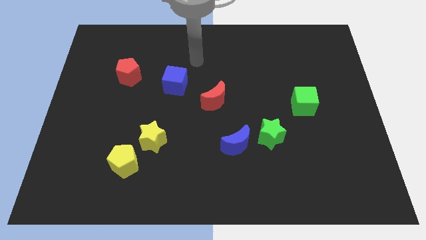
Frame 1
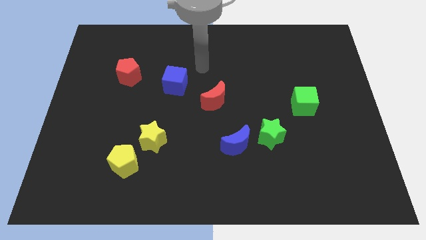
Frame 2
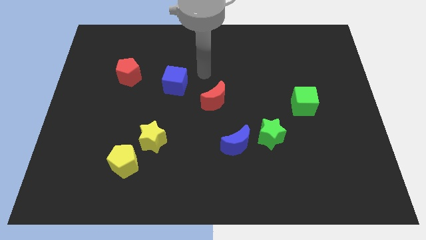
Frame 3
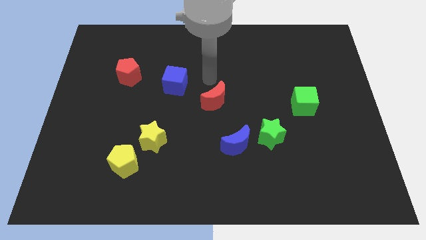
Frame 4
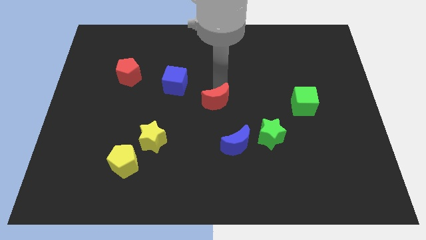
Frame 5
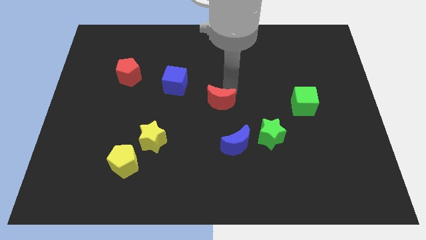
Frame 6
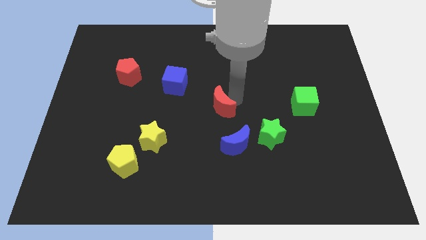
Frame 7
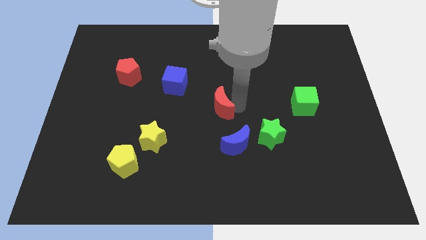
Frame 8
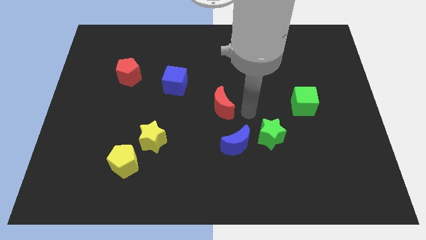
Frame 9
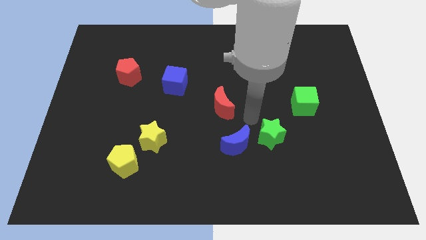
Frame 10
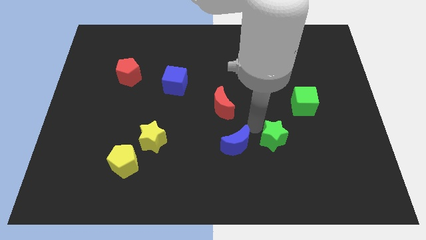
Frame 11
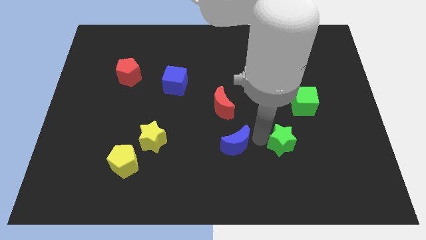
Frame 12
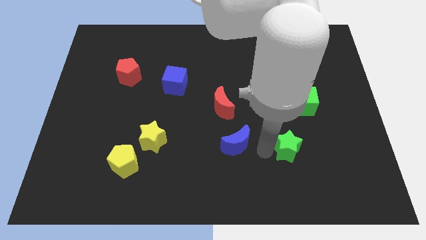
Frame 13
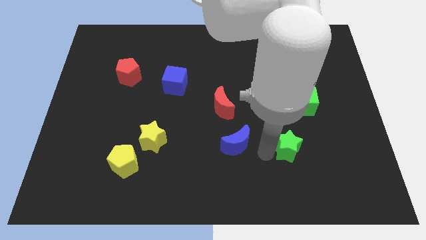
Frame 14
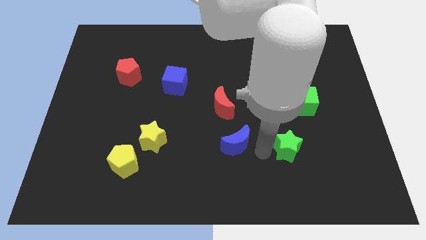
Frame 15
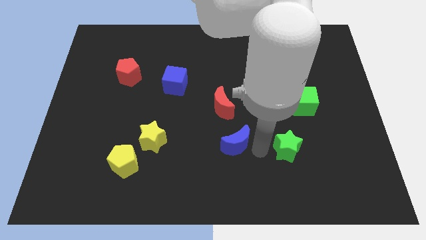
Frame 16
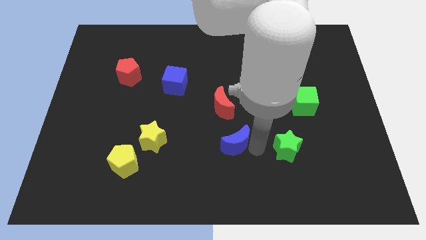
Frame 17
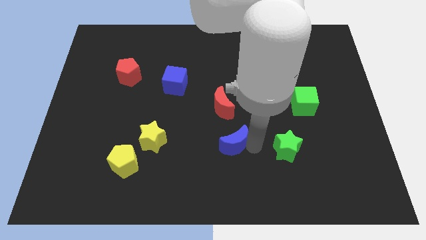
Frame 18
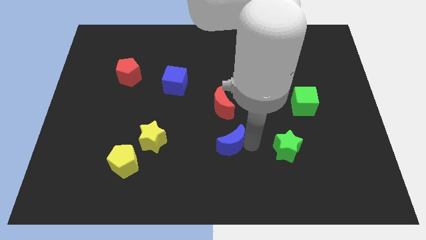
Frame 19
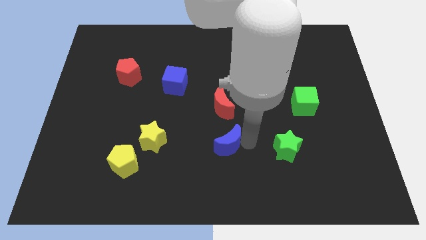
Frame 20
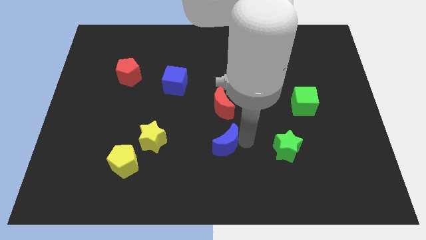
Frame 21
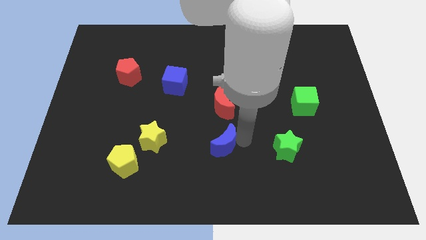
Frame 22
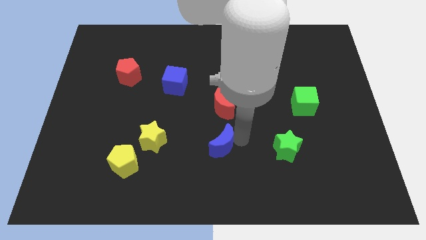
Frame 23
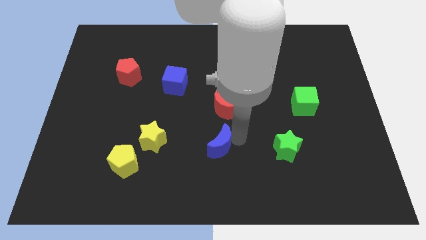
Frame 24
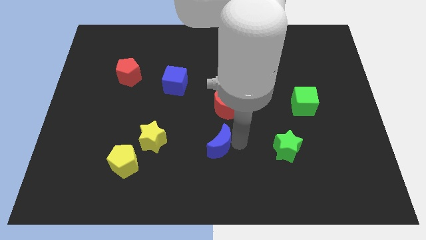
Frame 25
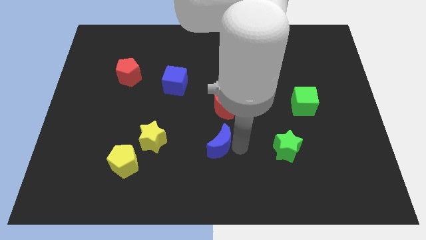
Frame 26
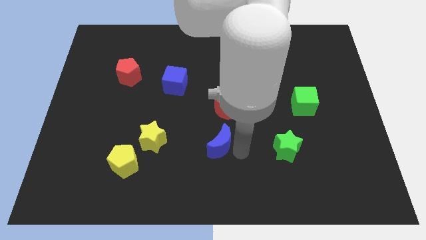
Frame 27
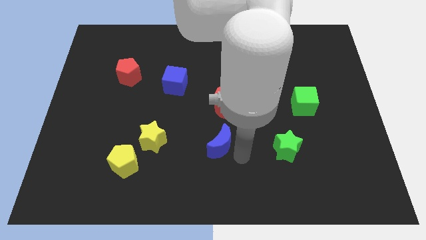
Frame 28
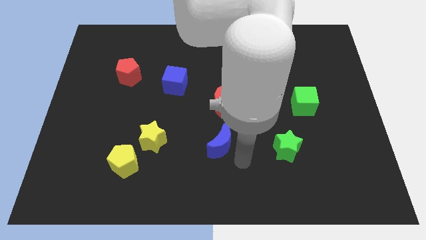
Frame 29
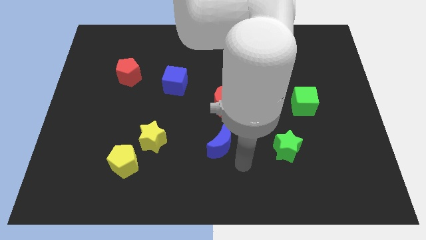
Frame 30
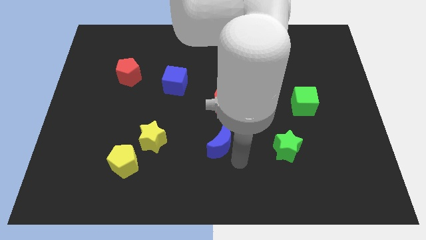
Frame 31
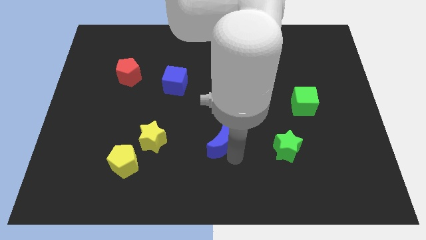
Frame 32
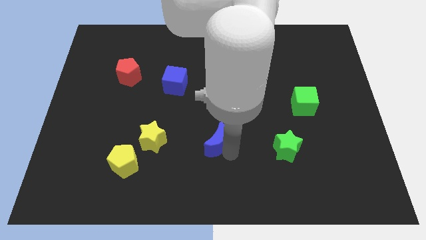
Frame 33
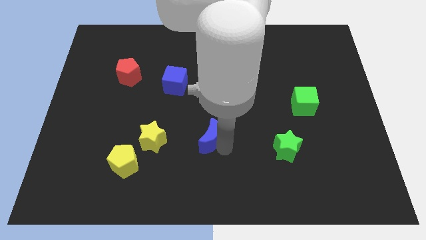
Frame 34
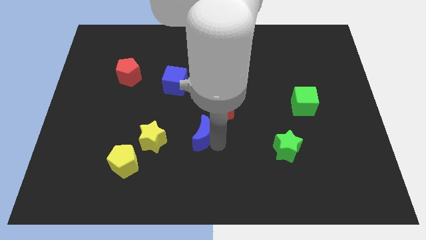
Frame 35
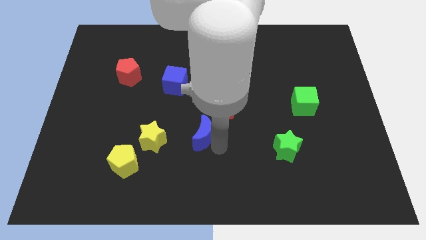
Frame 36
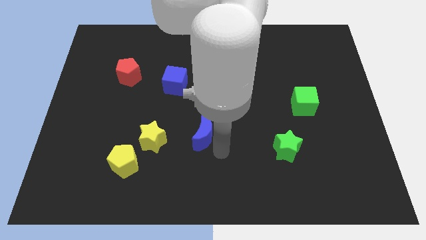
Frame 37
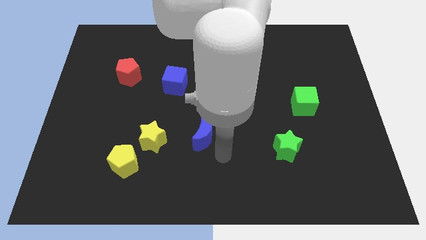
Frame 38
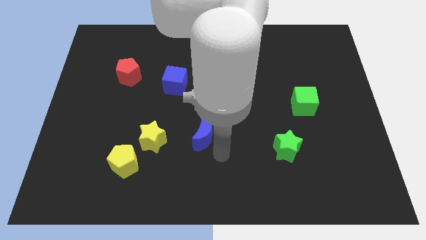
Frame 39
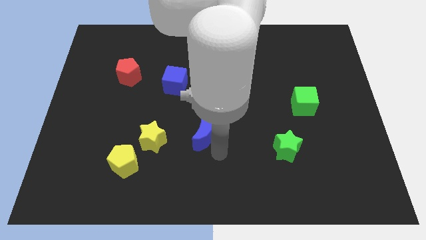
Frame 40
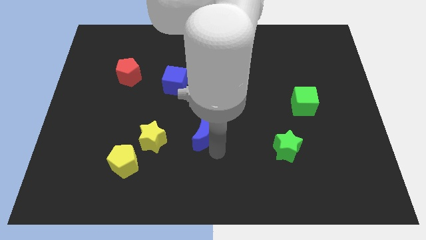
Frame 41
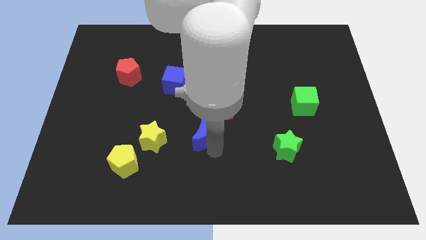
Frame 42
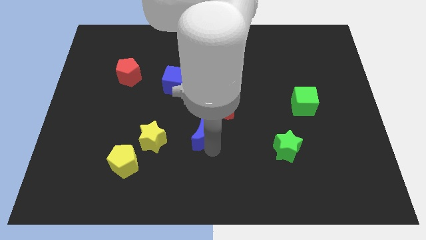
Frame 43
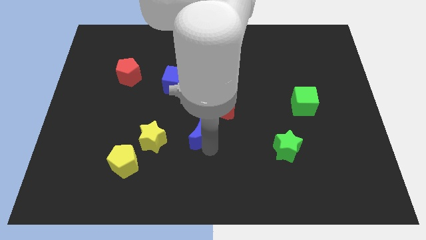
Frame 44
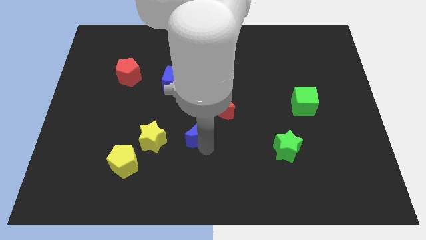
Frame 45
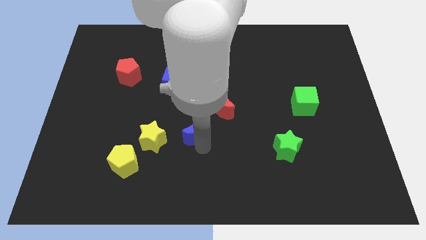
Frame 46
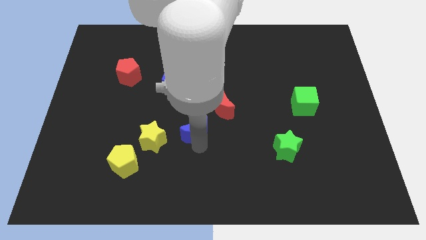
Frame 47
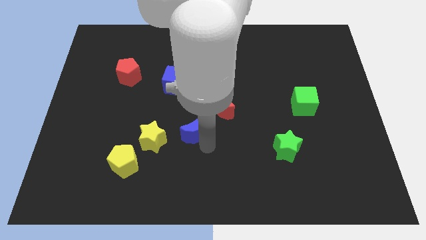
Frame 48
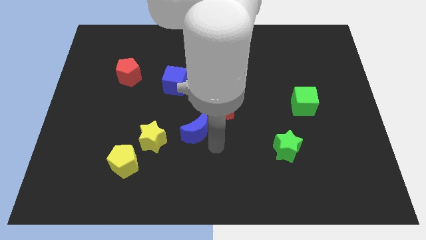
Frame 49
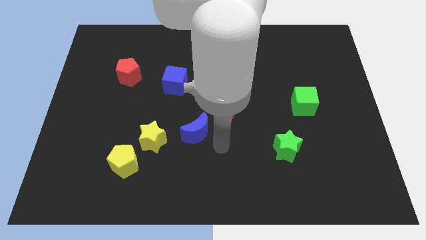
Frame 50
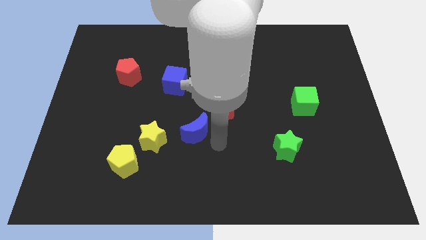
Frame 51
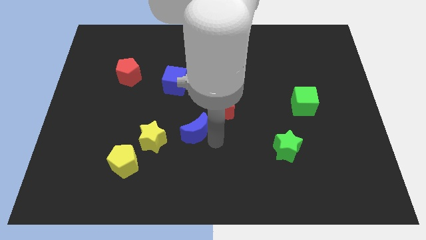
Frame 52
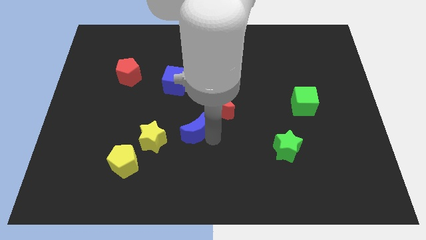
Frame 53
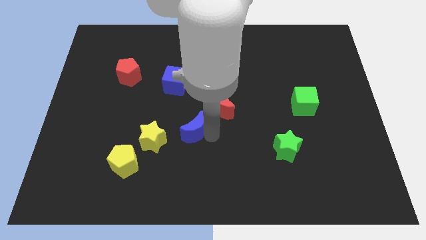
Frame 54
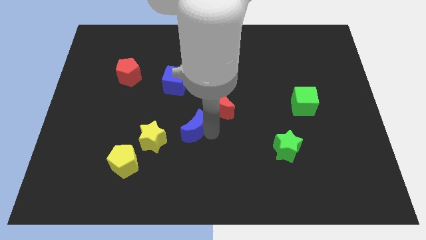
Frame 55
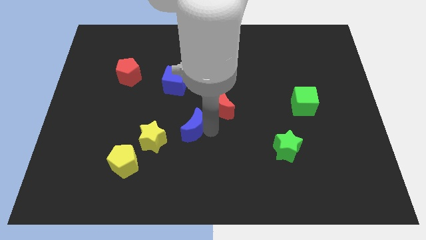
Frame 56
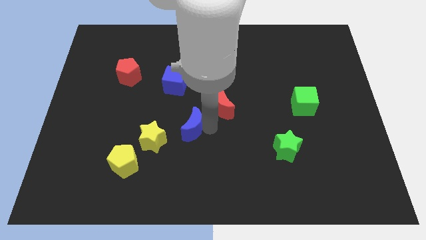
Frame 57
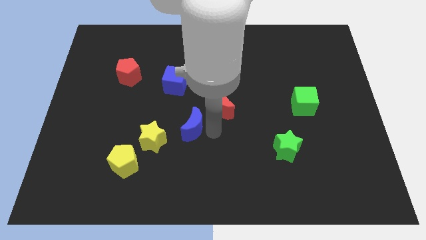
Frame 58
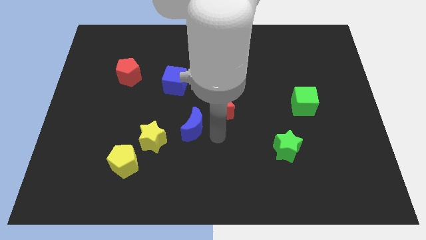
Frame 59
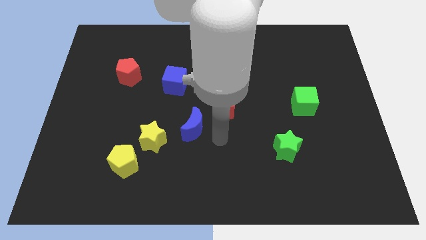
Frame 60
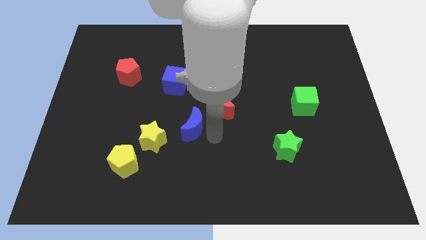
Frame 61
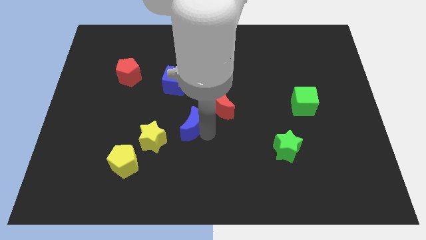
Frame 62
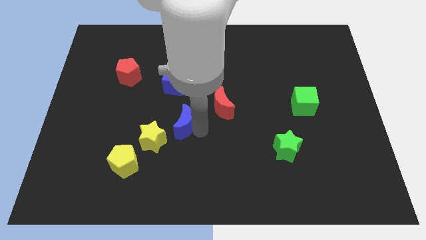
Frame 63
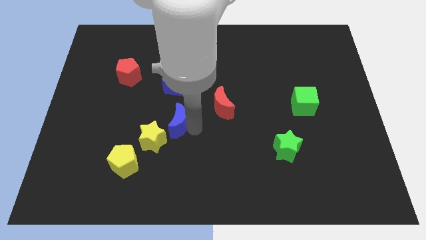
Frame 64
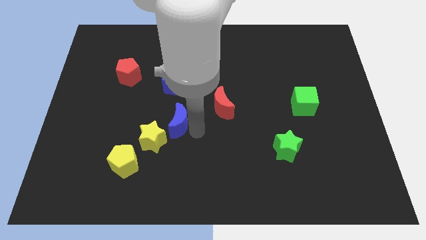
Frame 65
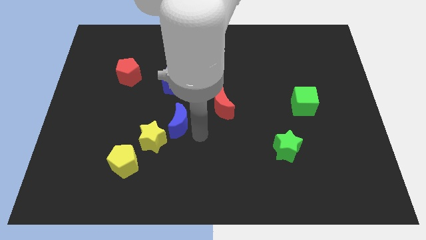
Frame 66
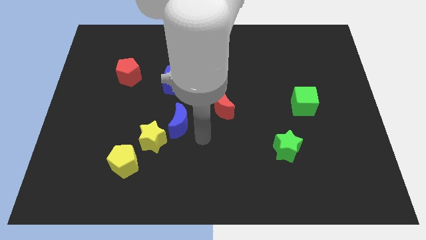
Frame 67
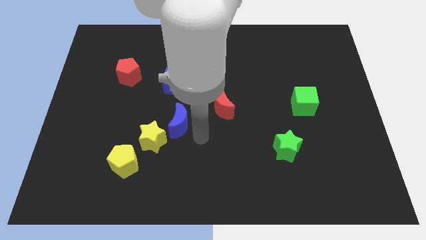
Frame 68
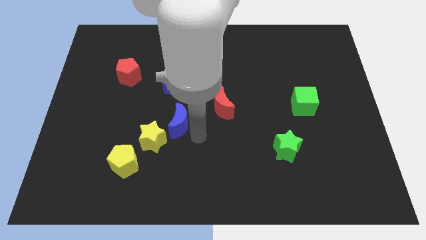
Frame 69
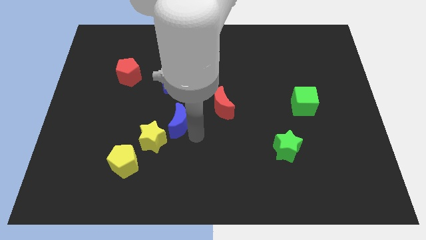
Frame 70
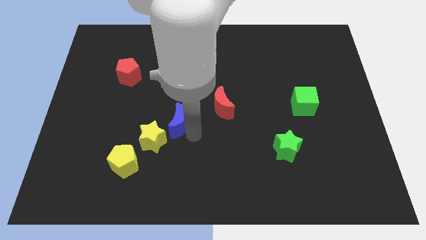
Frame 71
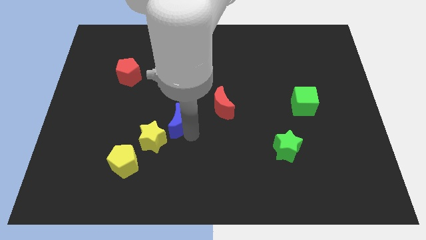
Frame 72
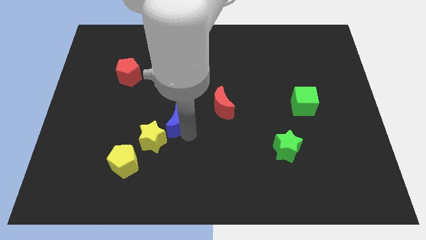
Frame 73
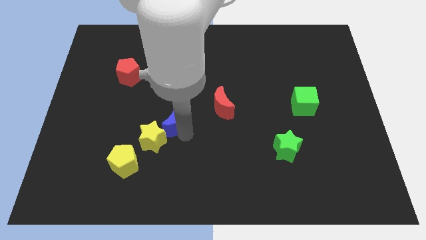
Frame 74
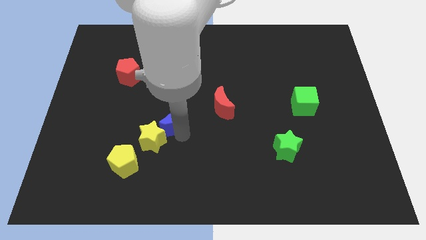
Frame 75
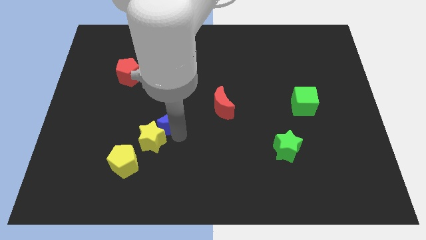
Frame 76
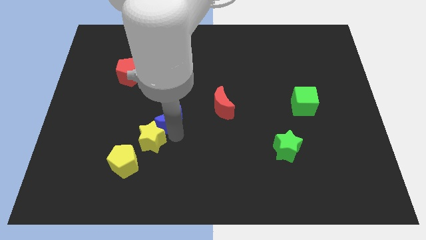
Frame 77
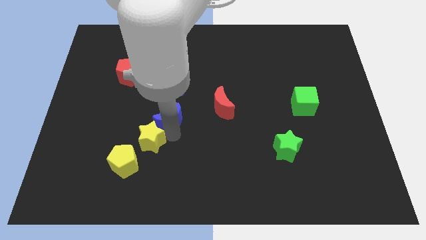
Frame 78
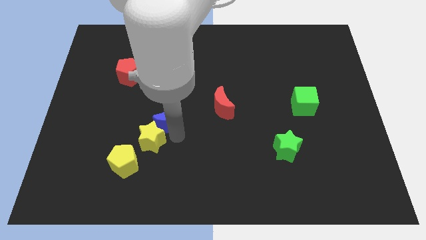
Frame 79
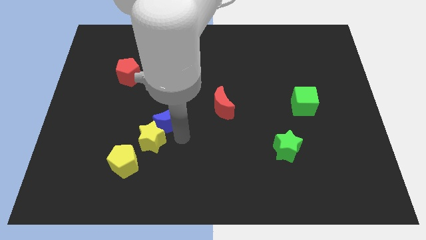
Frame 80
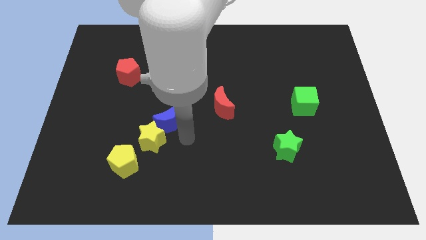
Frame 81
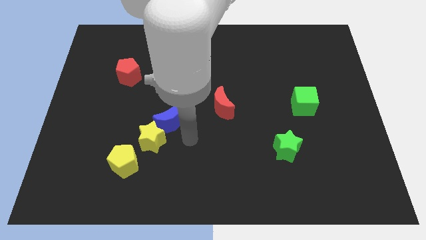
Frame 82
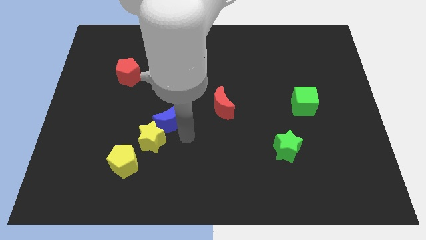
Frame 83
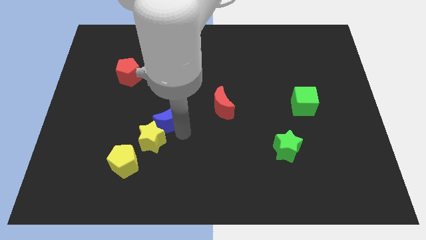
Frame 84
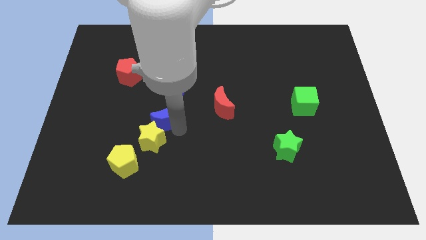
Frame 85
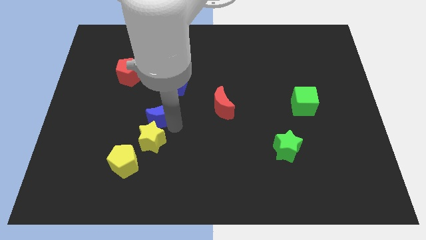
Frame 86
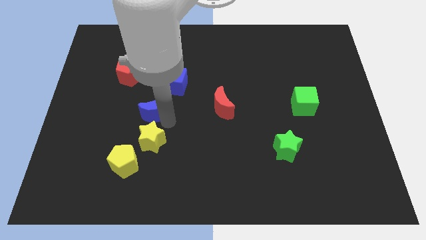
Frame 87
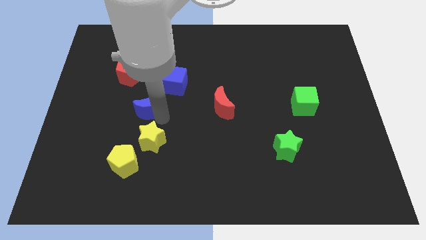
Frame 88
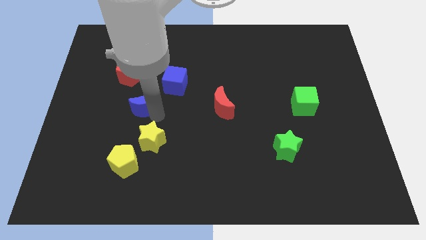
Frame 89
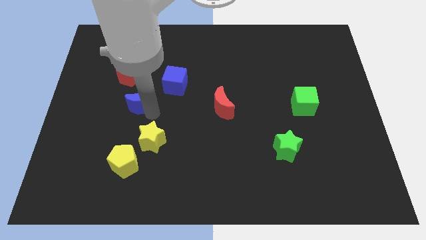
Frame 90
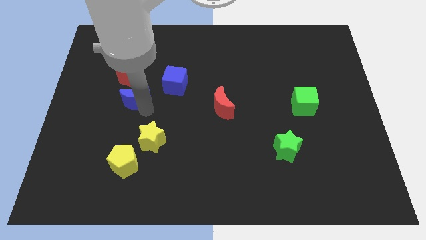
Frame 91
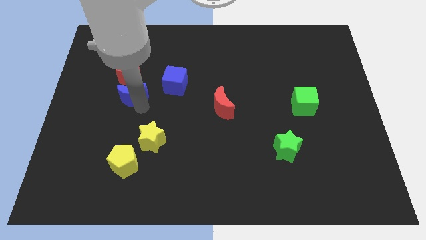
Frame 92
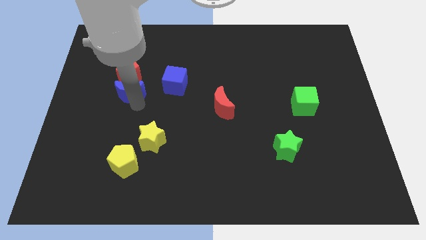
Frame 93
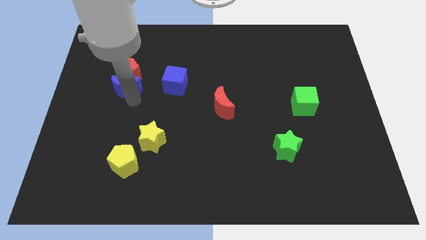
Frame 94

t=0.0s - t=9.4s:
push the blue moon next to the red pentagon
